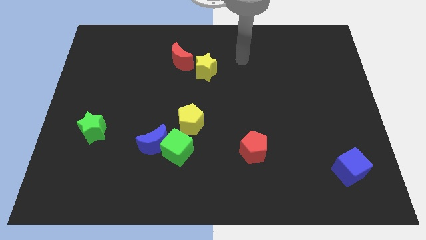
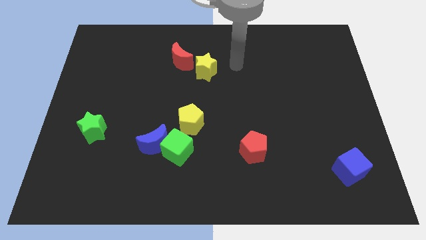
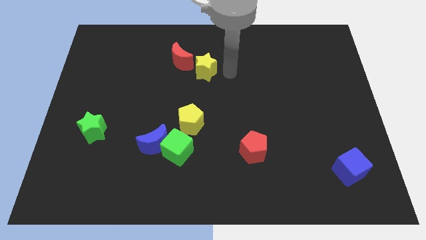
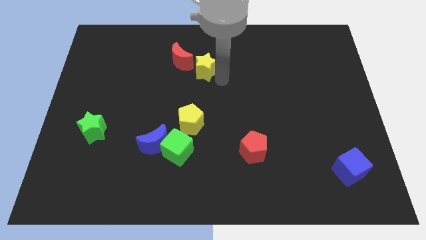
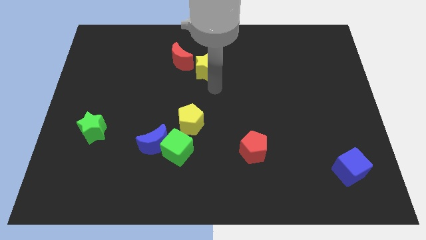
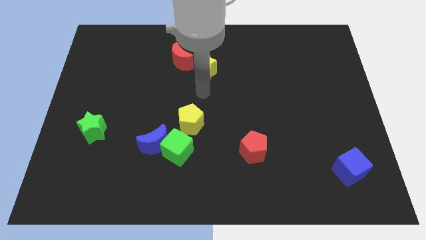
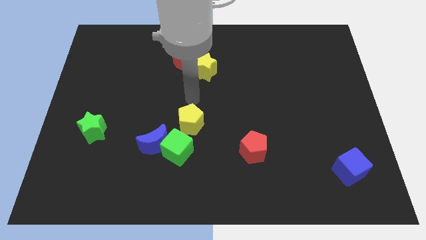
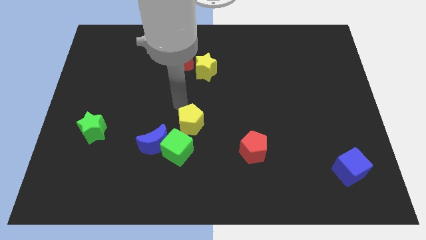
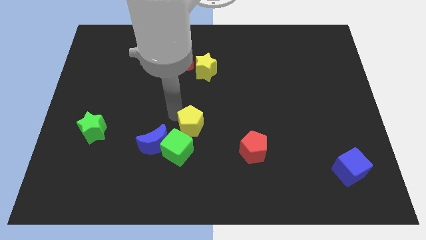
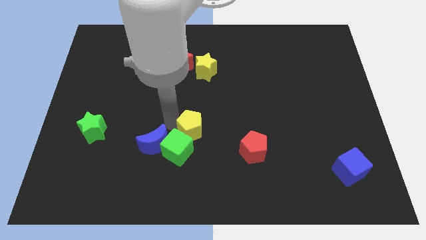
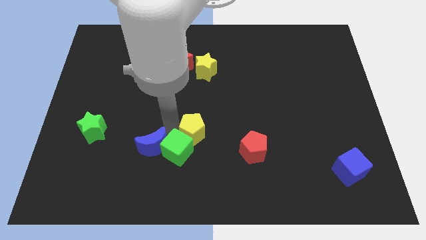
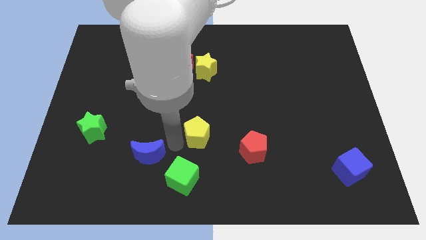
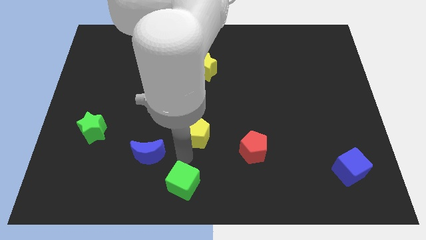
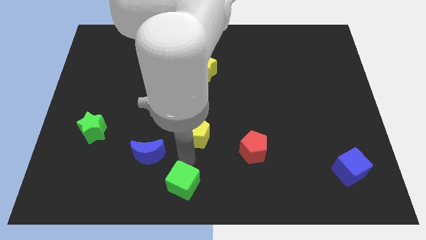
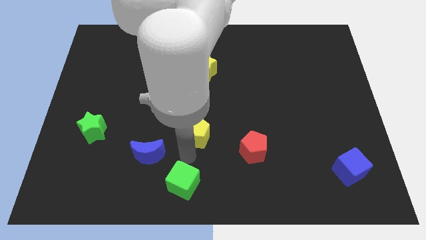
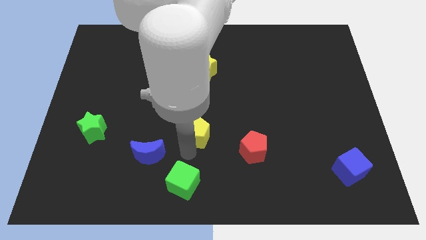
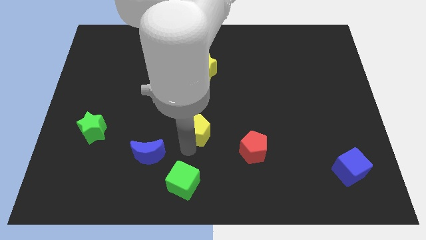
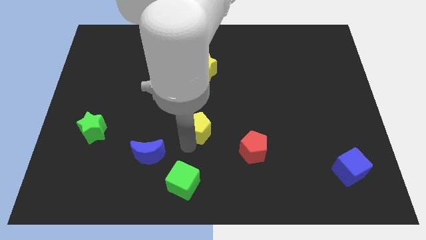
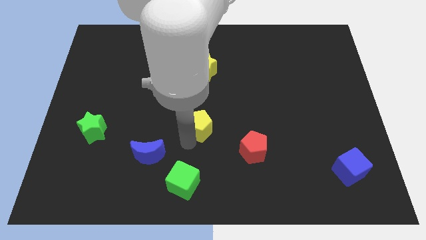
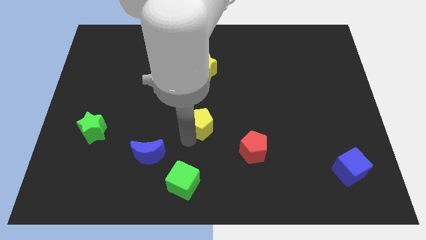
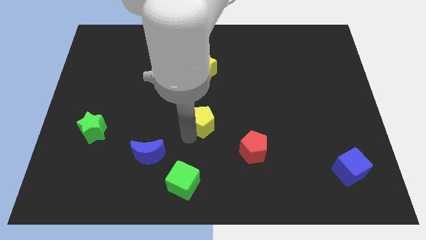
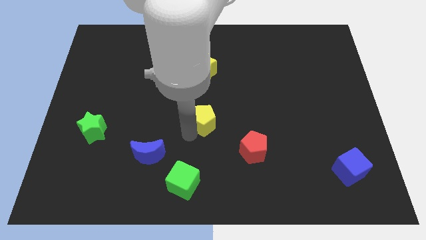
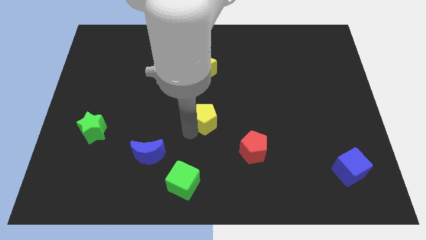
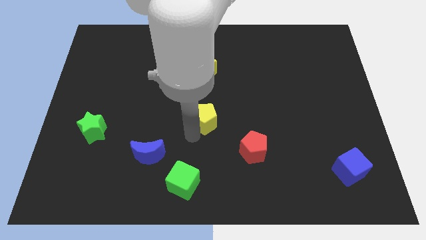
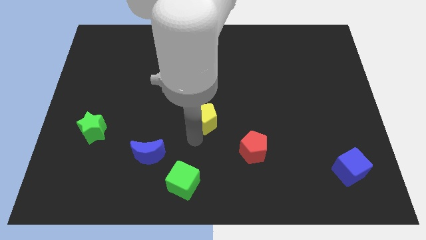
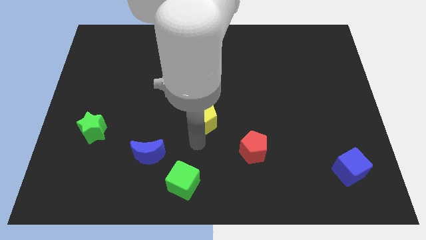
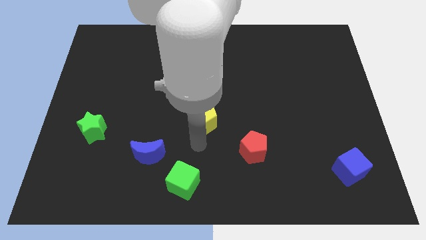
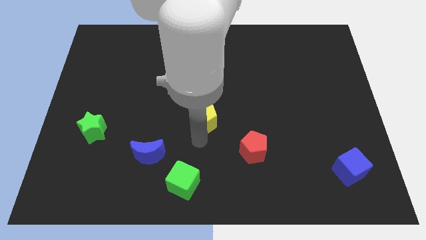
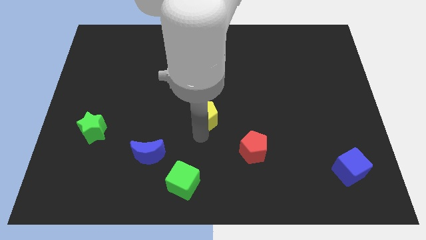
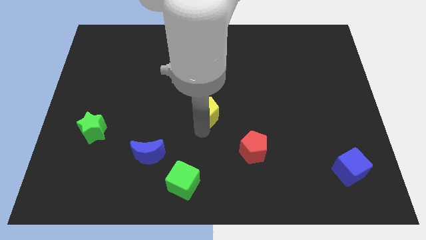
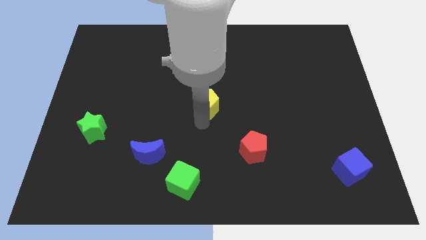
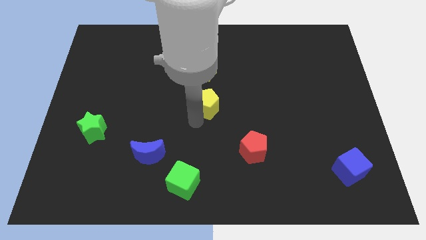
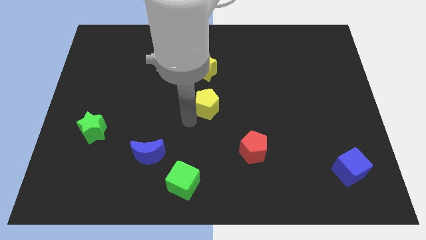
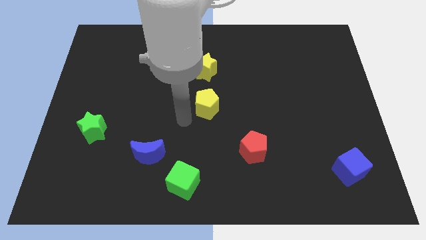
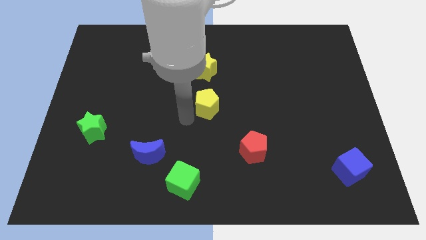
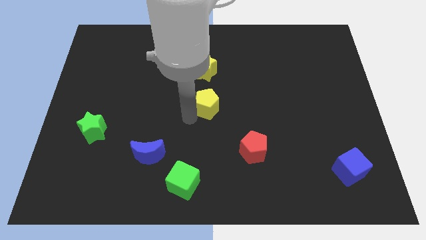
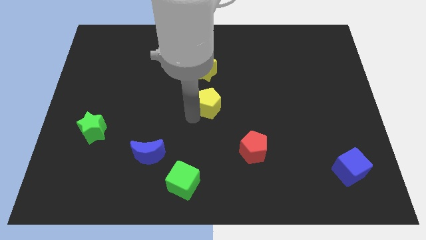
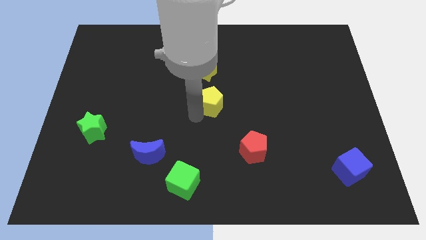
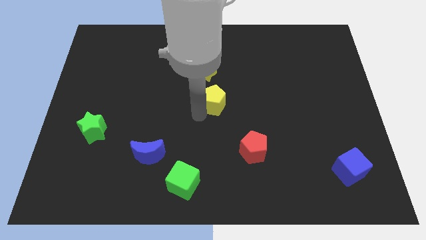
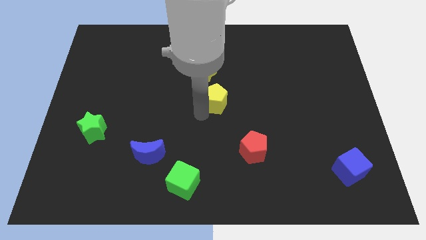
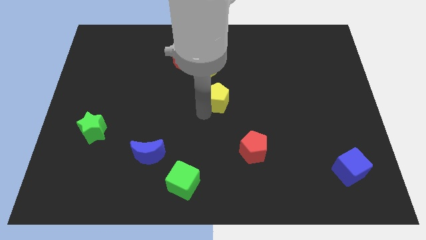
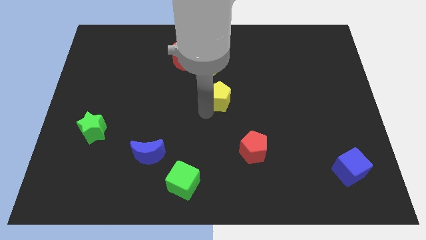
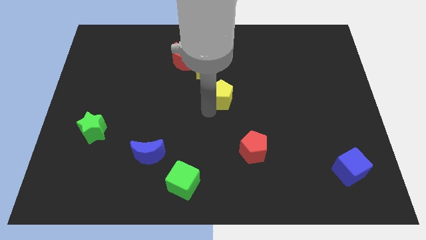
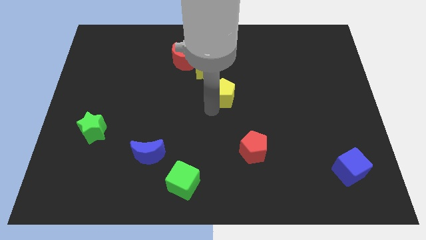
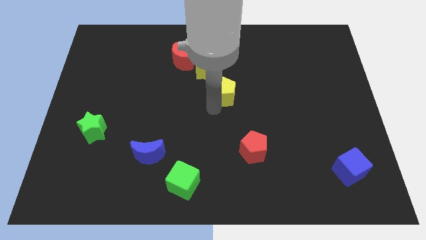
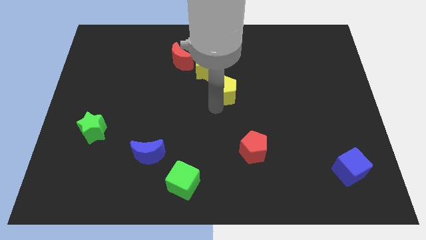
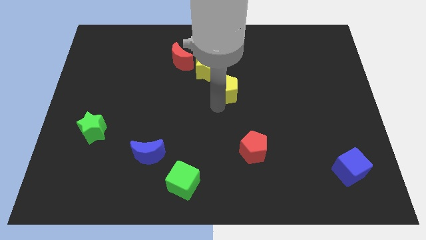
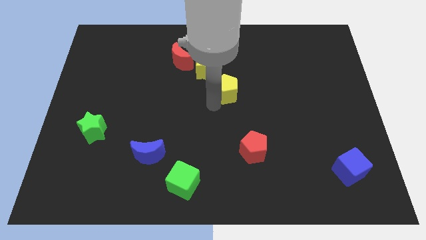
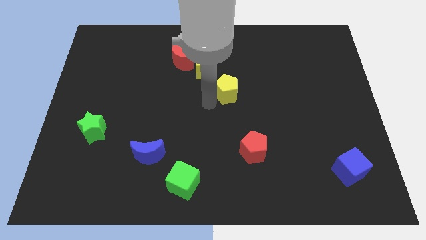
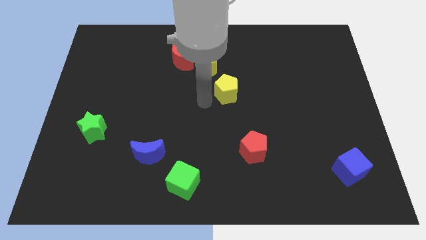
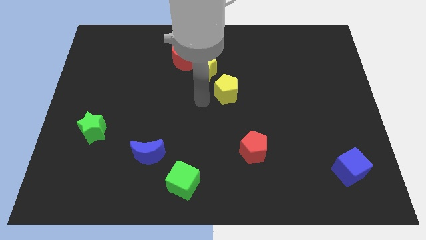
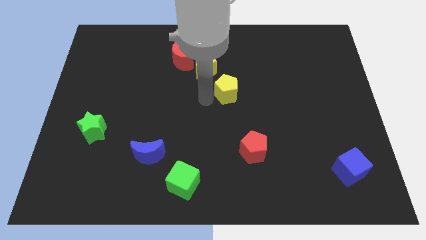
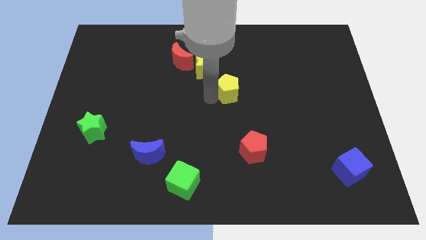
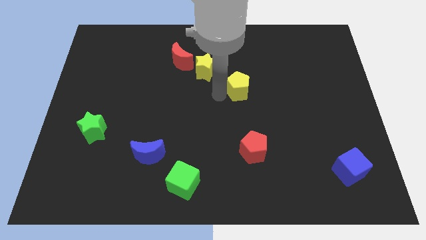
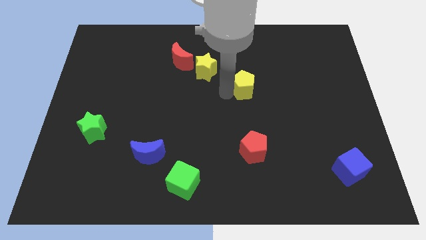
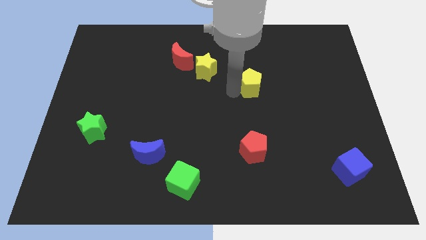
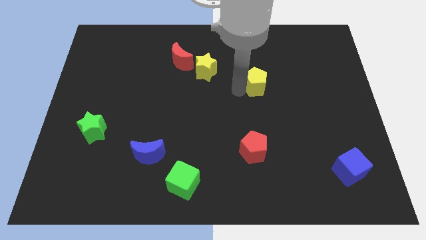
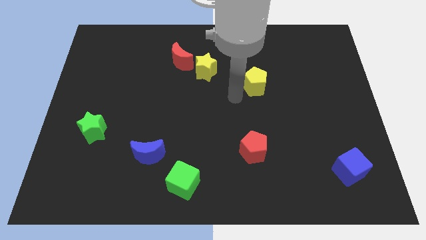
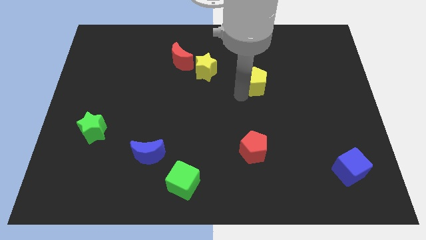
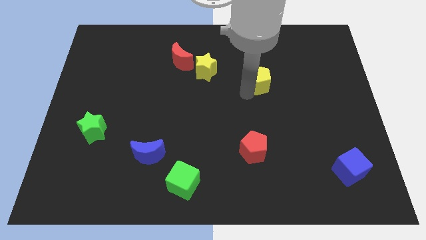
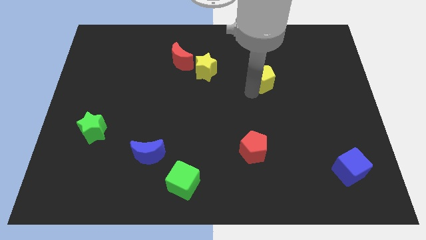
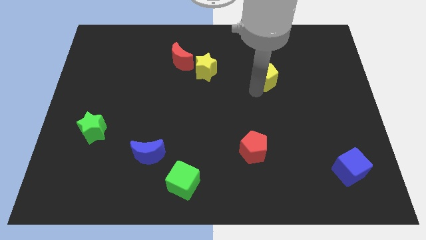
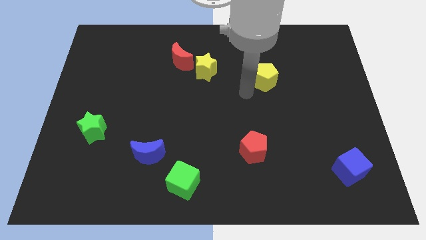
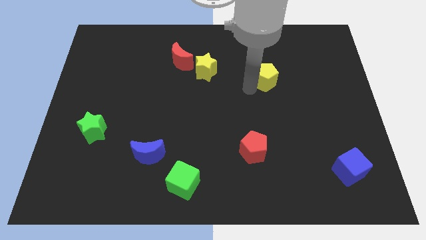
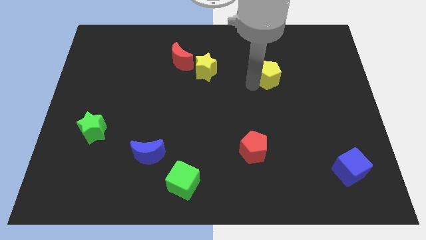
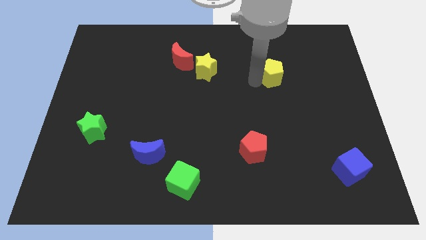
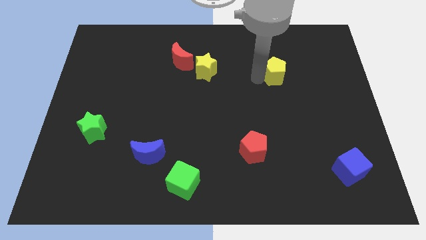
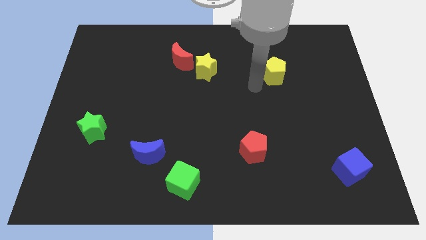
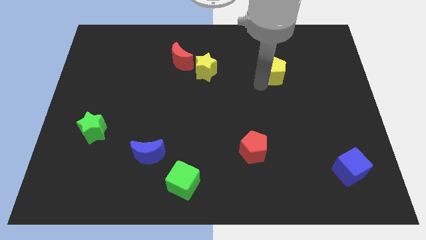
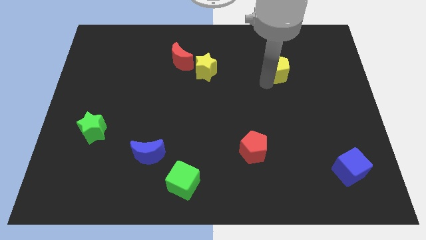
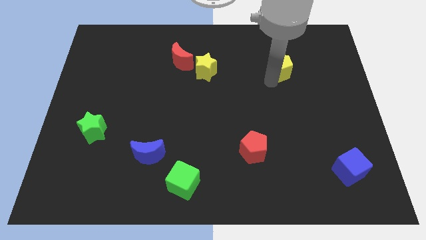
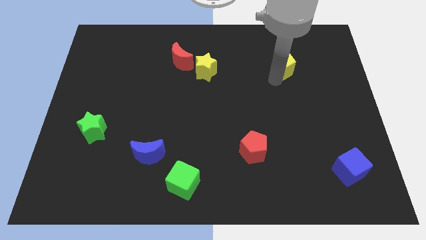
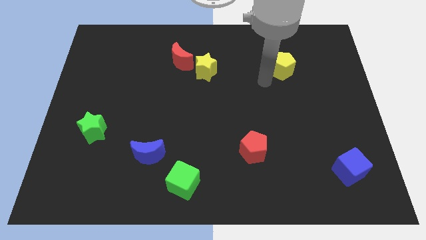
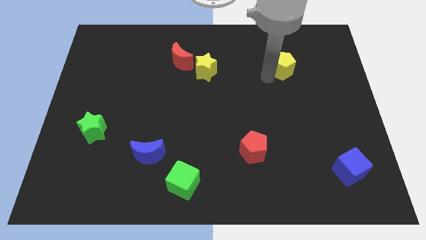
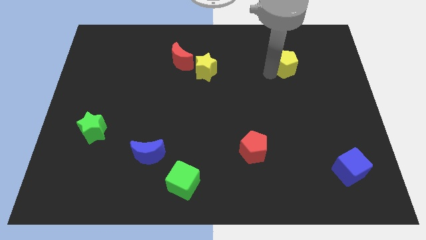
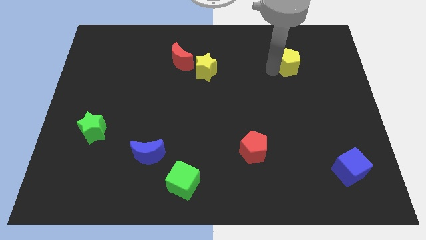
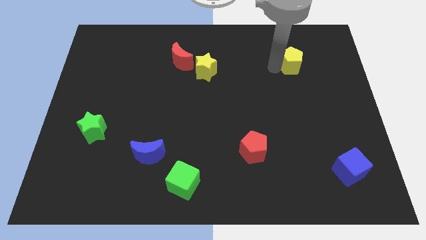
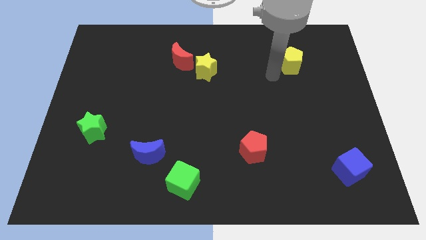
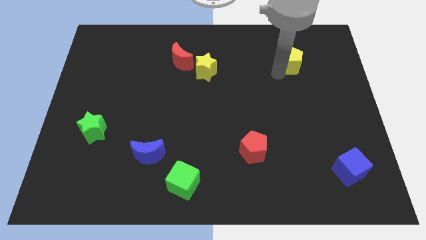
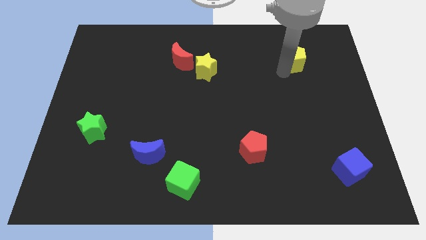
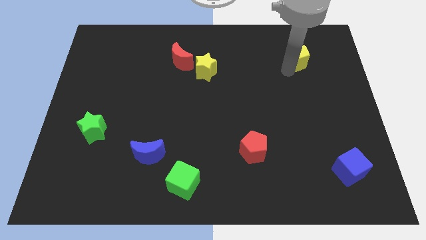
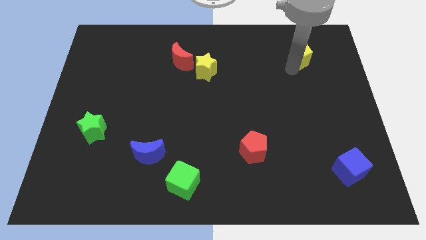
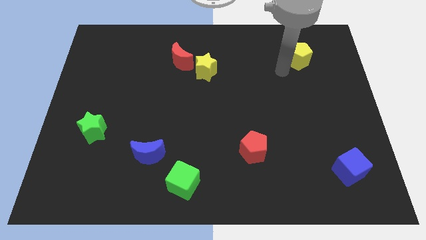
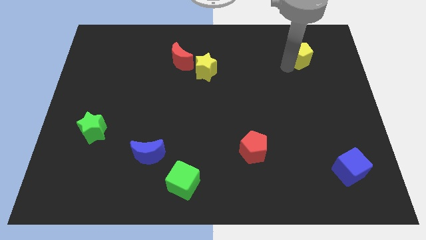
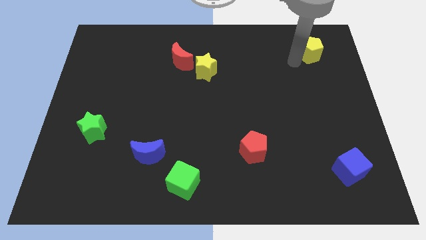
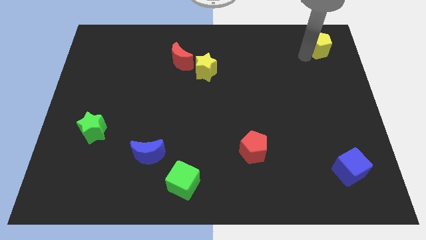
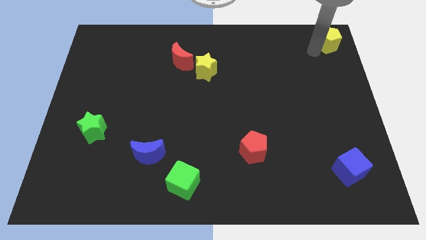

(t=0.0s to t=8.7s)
move the yellow pentagon to the upper right corner
